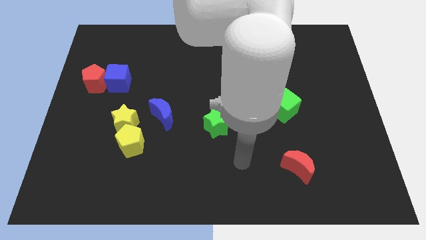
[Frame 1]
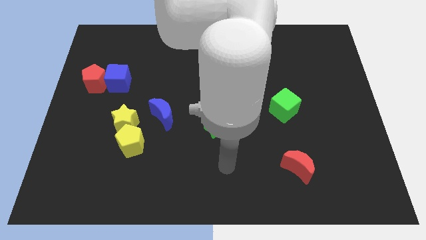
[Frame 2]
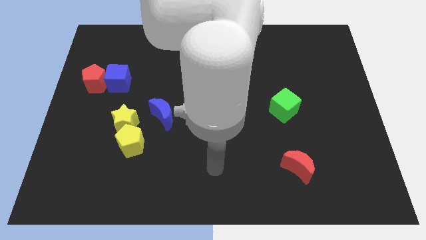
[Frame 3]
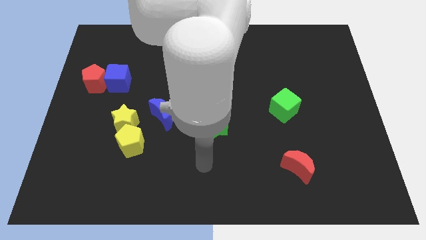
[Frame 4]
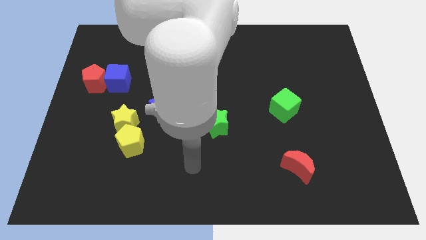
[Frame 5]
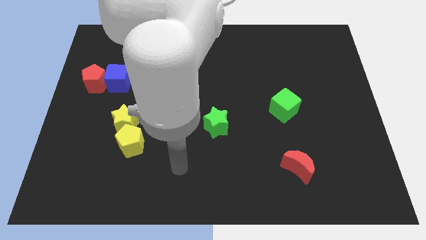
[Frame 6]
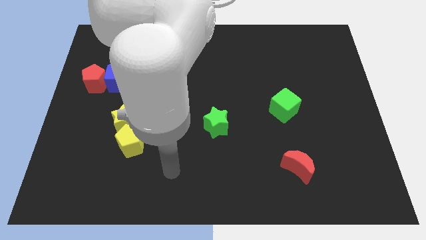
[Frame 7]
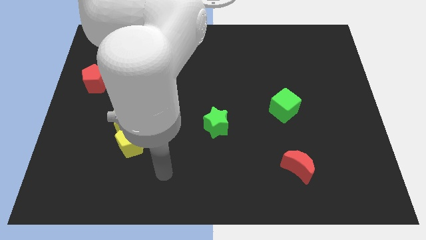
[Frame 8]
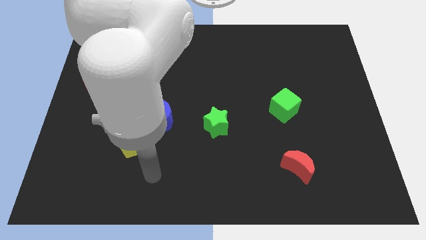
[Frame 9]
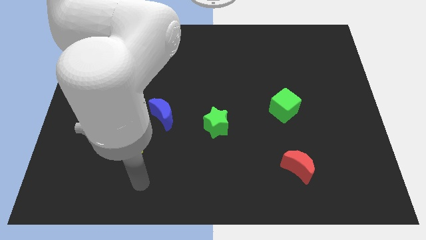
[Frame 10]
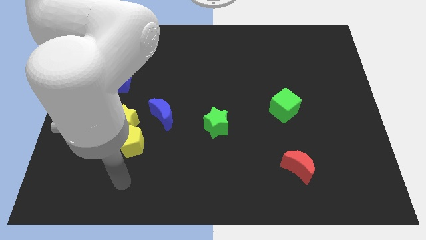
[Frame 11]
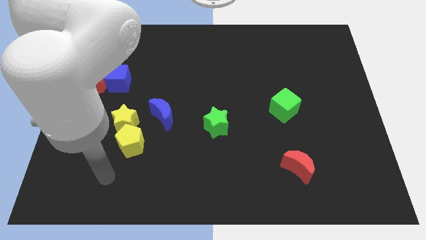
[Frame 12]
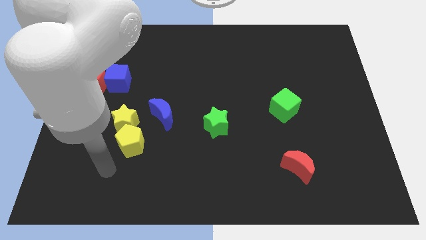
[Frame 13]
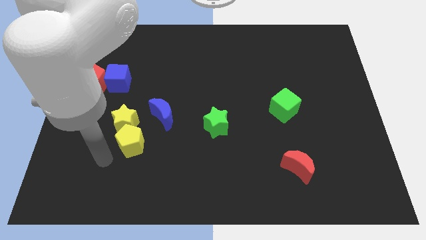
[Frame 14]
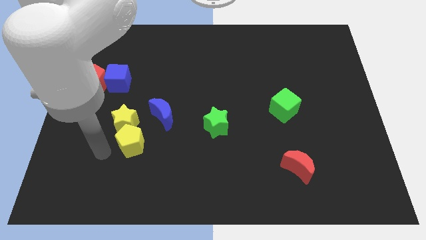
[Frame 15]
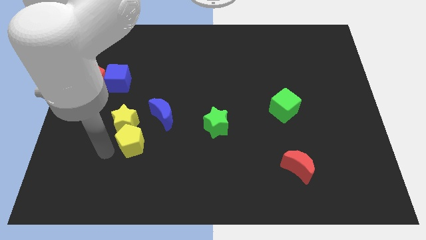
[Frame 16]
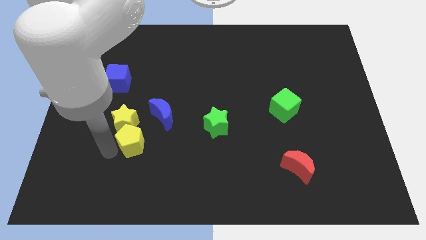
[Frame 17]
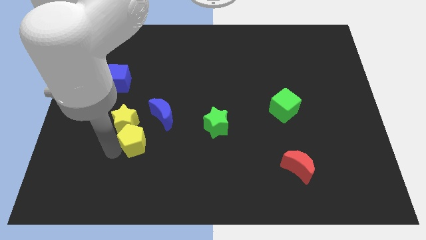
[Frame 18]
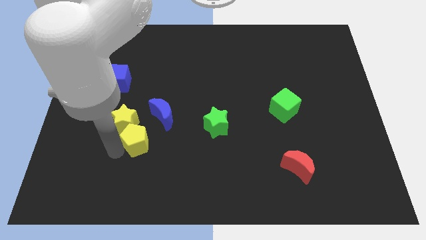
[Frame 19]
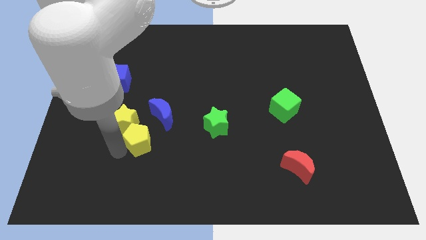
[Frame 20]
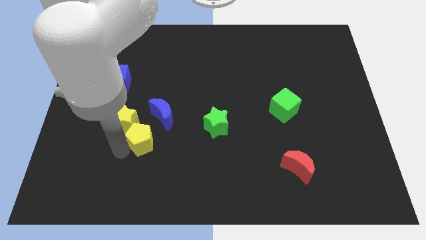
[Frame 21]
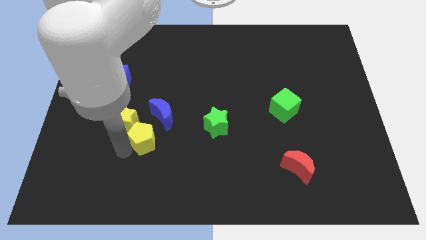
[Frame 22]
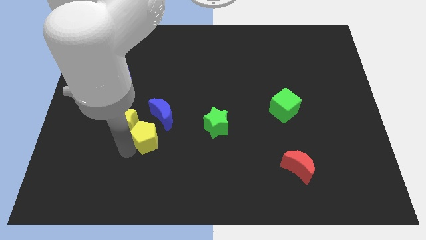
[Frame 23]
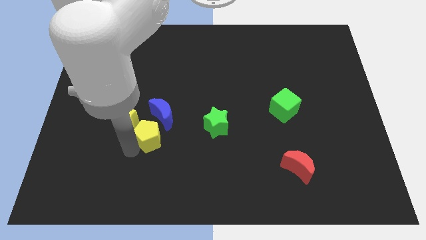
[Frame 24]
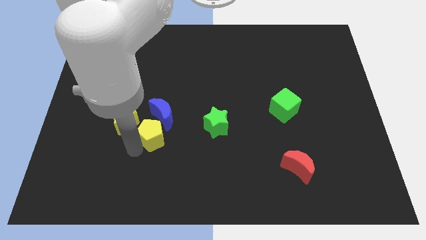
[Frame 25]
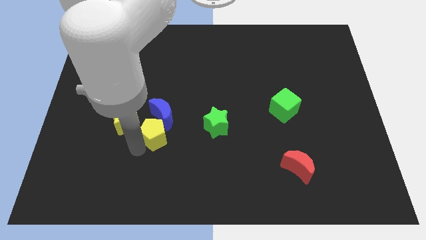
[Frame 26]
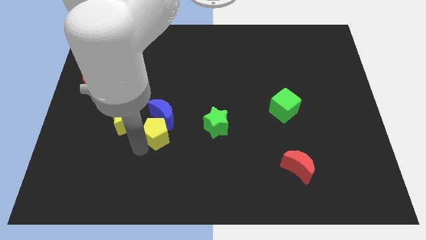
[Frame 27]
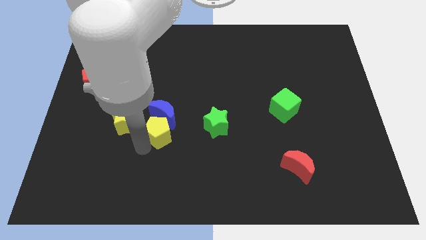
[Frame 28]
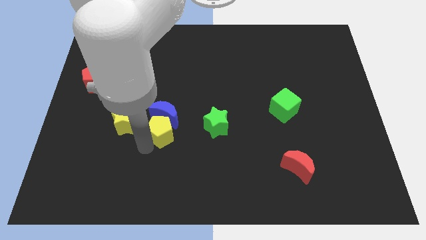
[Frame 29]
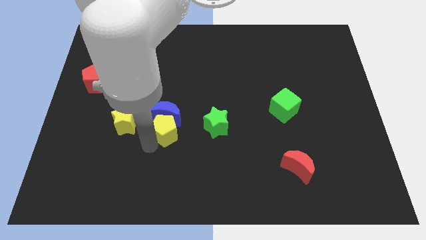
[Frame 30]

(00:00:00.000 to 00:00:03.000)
move the yellow pentagon up and right diagonally somewhat

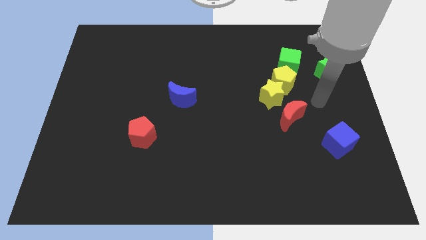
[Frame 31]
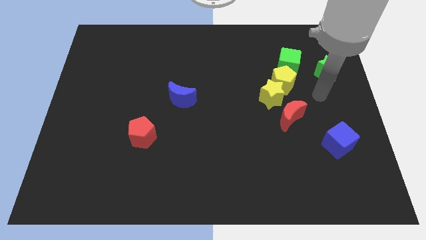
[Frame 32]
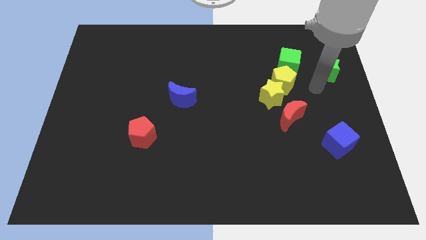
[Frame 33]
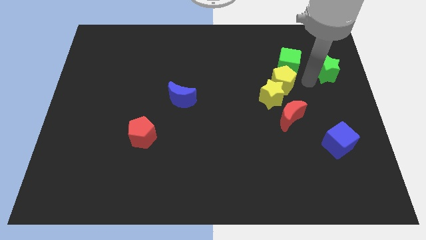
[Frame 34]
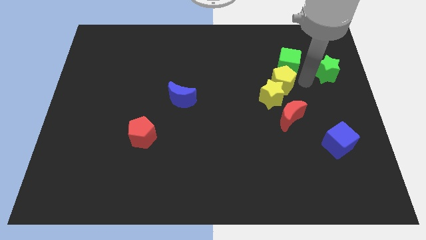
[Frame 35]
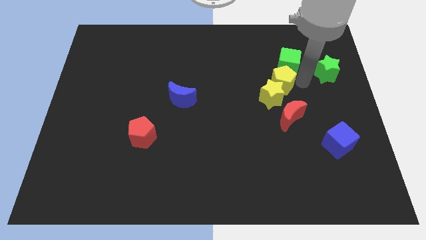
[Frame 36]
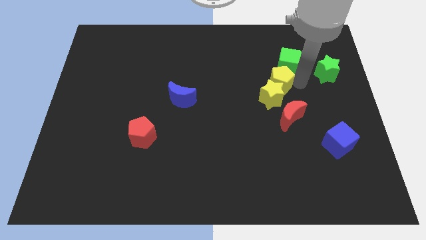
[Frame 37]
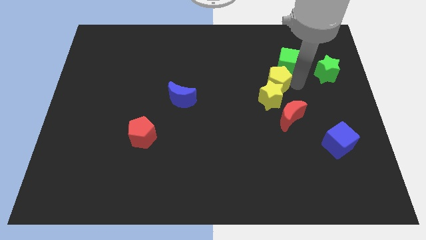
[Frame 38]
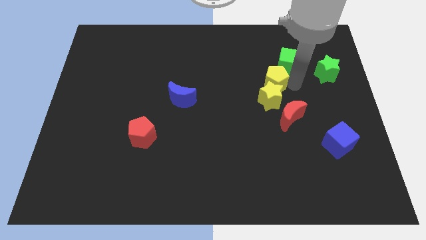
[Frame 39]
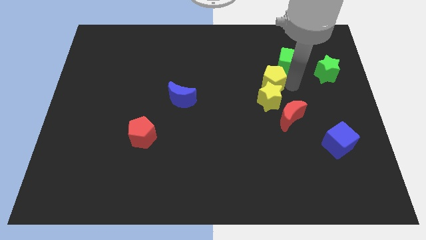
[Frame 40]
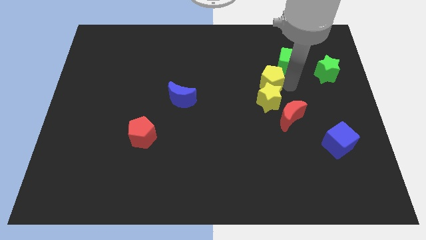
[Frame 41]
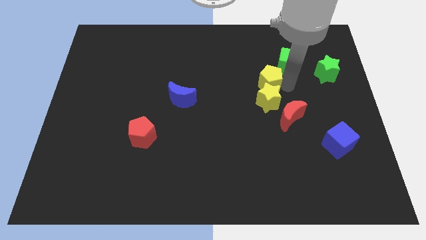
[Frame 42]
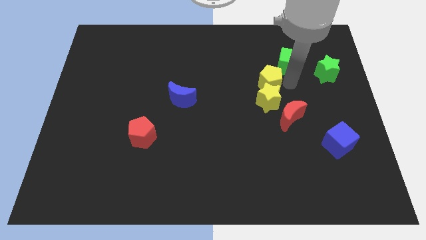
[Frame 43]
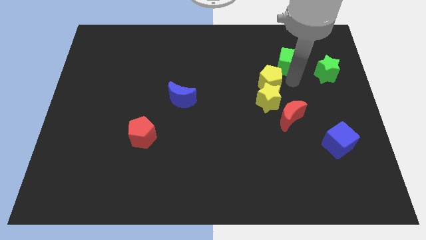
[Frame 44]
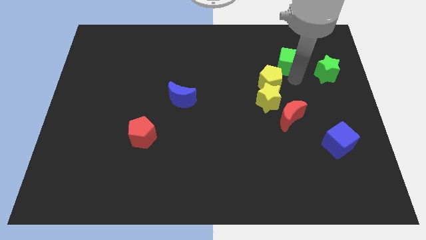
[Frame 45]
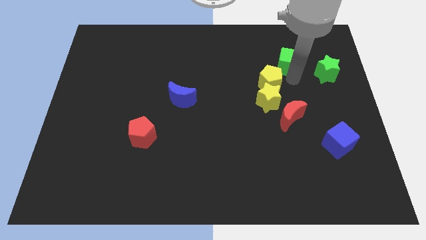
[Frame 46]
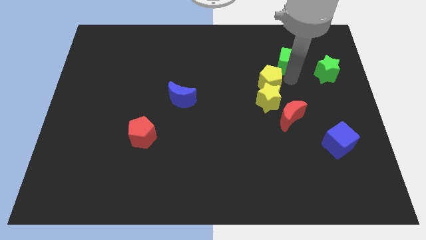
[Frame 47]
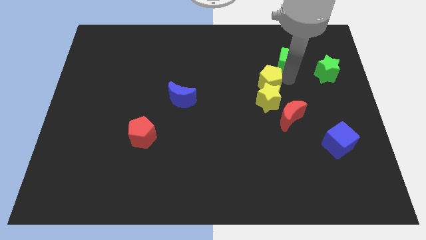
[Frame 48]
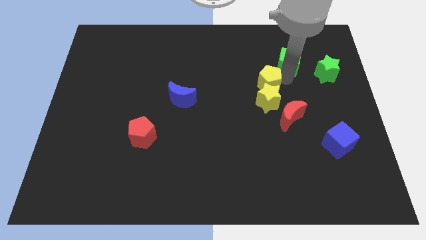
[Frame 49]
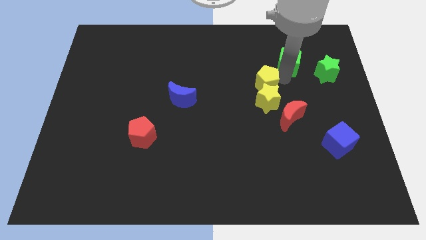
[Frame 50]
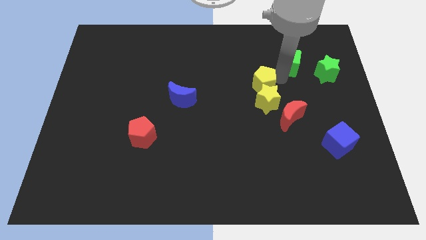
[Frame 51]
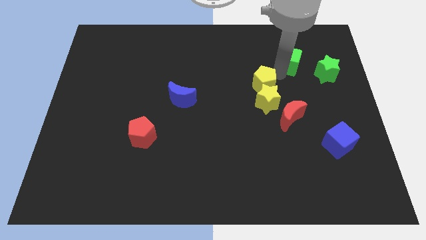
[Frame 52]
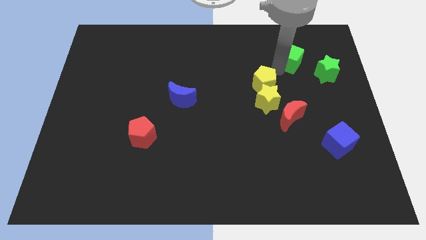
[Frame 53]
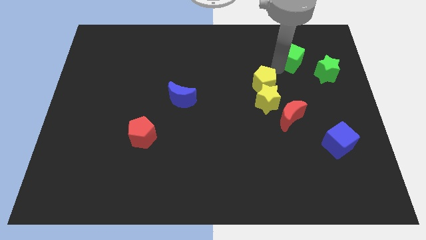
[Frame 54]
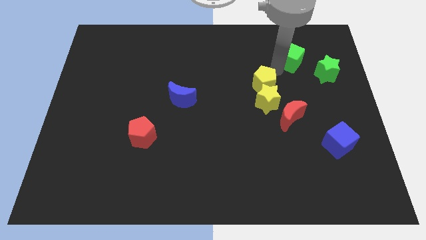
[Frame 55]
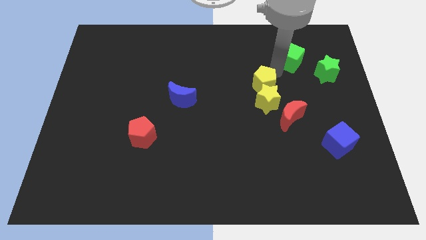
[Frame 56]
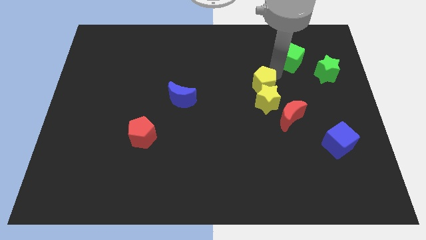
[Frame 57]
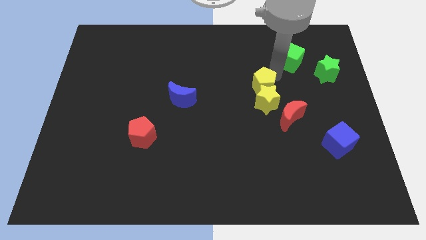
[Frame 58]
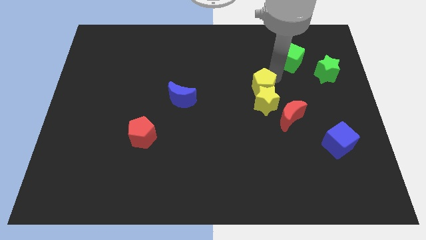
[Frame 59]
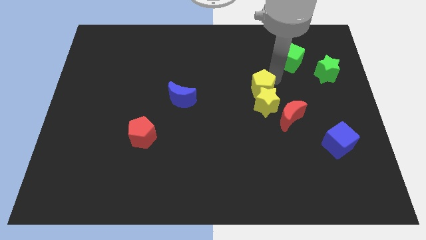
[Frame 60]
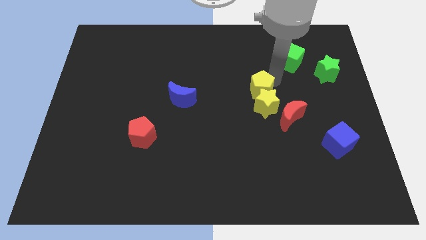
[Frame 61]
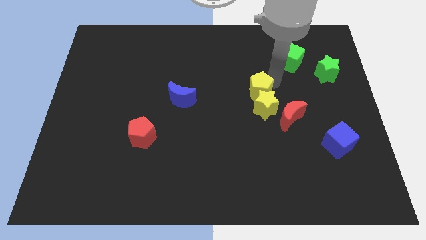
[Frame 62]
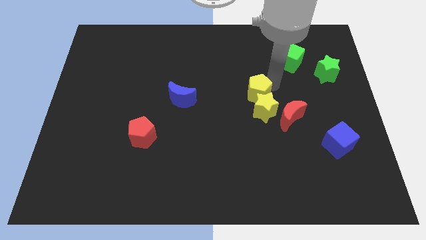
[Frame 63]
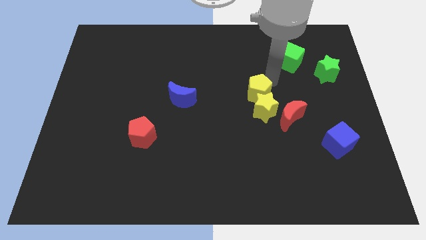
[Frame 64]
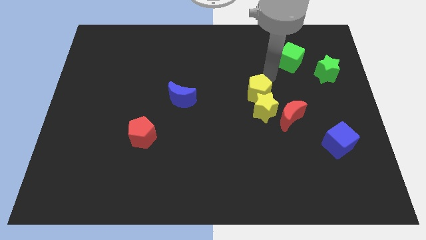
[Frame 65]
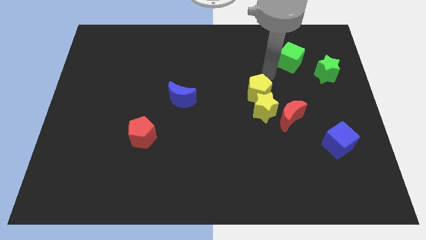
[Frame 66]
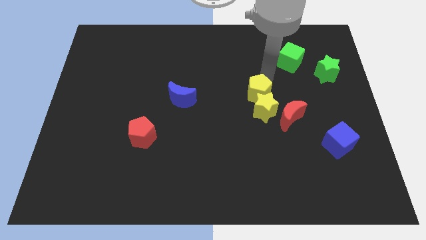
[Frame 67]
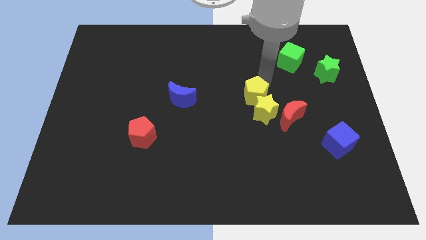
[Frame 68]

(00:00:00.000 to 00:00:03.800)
move the yellow pentagon downwards and to the left somewhat

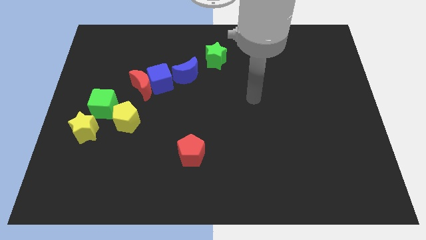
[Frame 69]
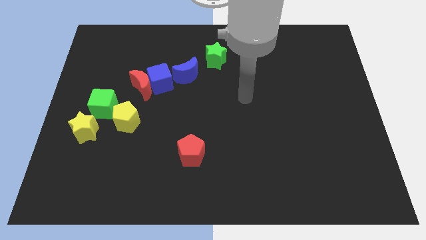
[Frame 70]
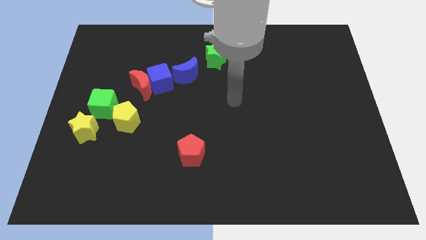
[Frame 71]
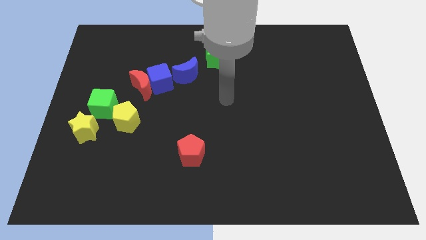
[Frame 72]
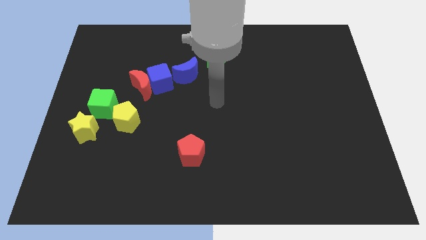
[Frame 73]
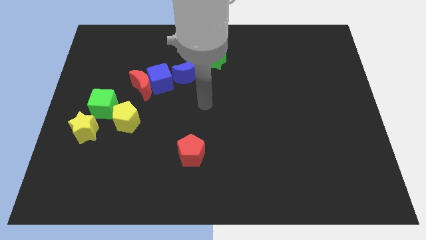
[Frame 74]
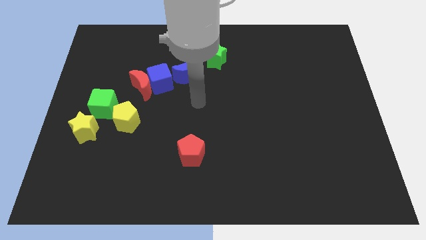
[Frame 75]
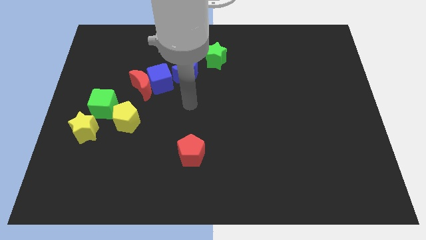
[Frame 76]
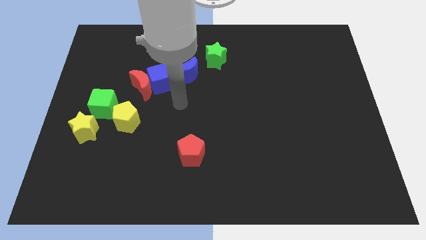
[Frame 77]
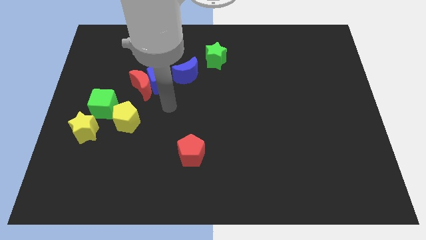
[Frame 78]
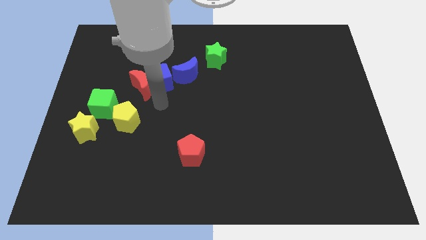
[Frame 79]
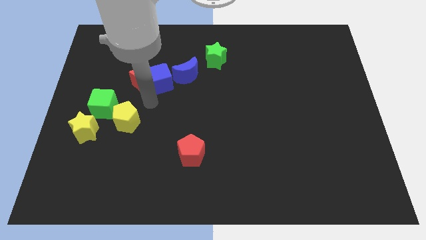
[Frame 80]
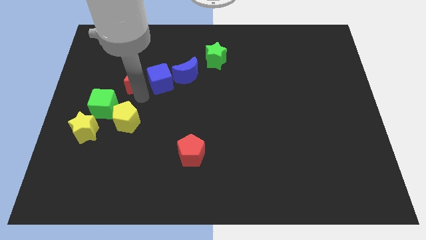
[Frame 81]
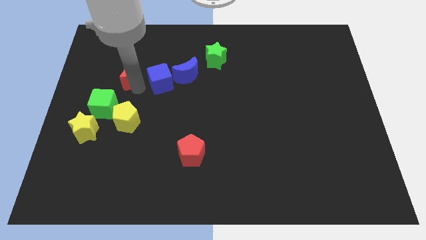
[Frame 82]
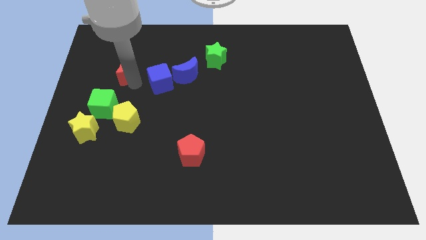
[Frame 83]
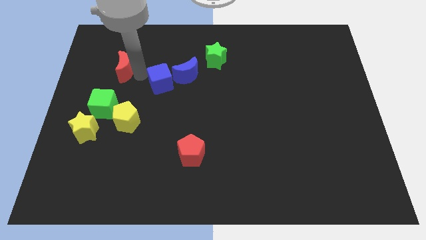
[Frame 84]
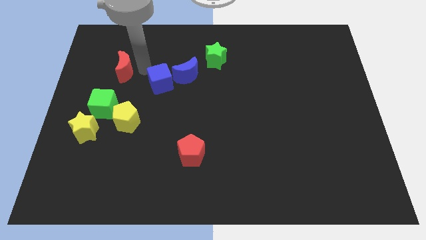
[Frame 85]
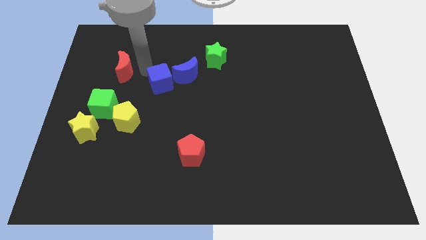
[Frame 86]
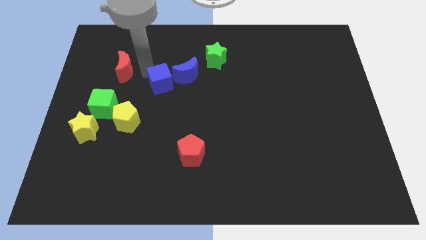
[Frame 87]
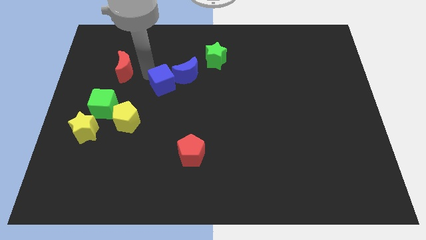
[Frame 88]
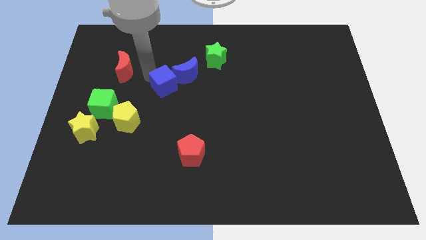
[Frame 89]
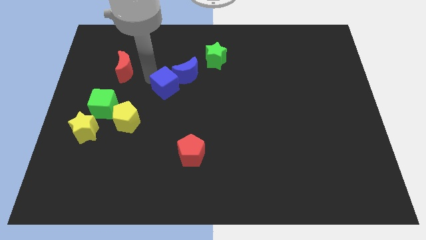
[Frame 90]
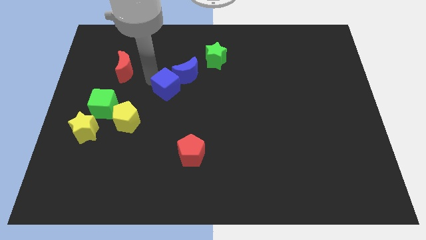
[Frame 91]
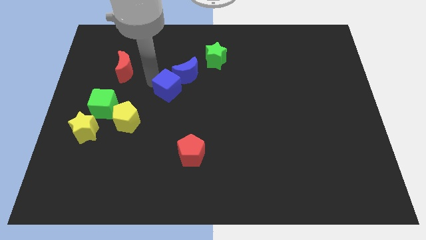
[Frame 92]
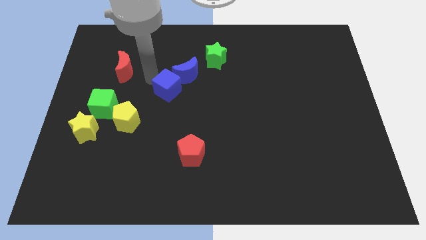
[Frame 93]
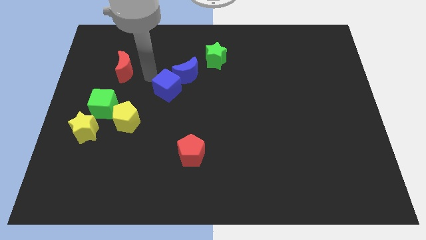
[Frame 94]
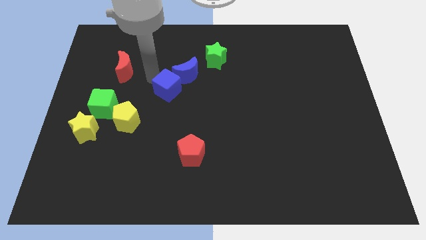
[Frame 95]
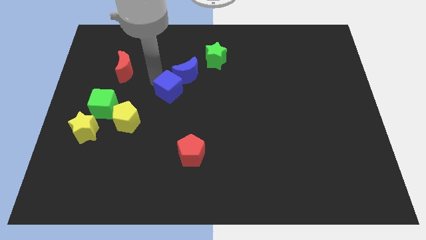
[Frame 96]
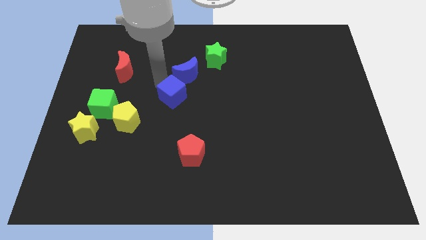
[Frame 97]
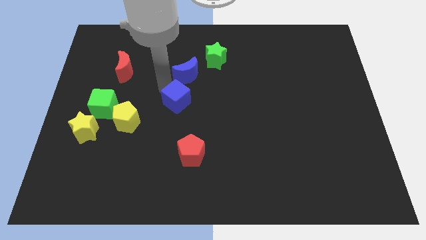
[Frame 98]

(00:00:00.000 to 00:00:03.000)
slide the blue cube down and right somewhat
